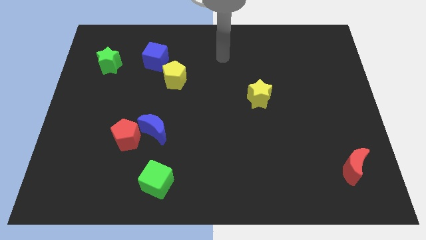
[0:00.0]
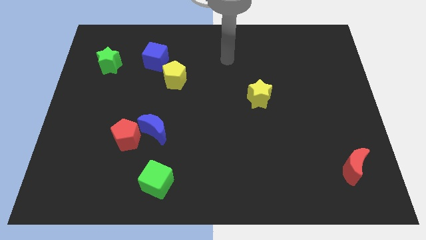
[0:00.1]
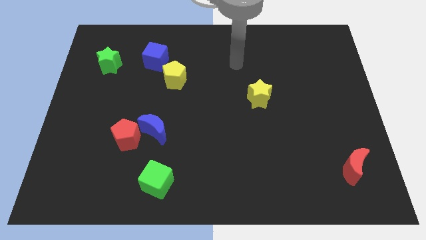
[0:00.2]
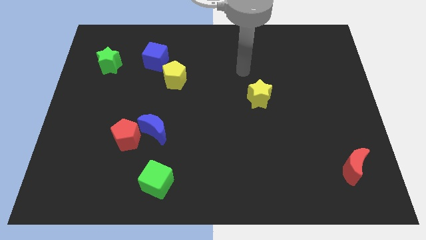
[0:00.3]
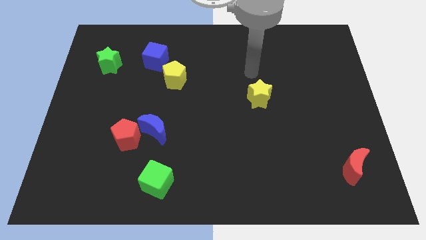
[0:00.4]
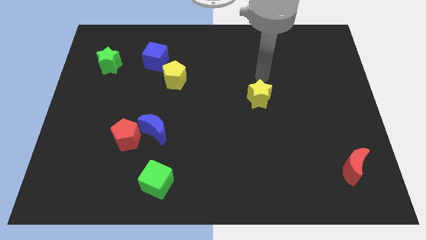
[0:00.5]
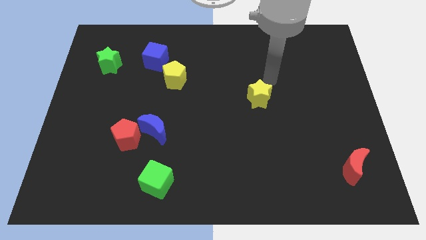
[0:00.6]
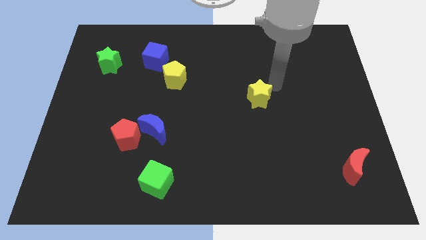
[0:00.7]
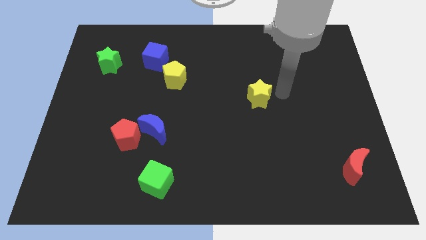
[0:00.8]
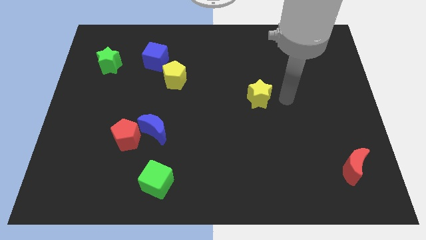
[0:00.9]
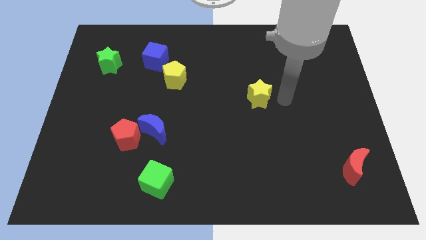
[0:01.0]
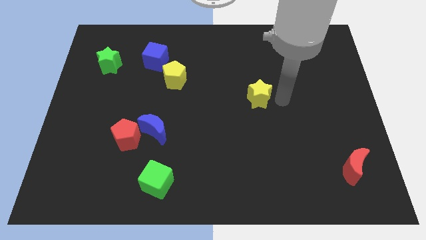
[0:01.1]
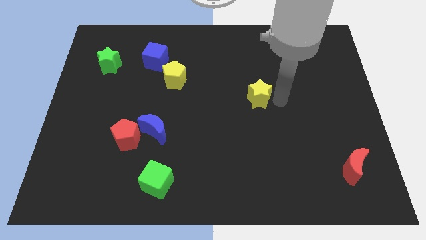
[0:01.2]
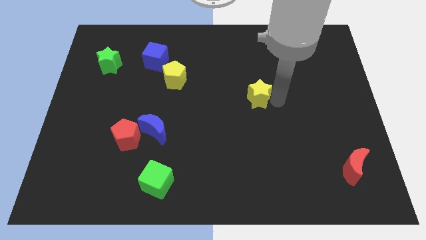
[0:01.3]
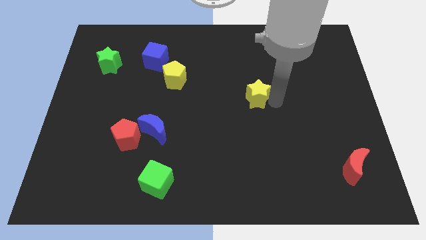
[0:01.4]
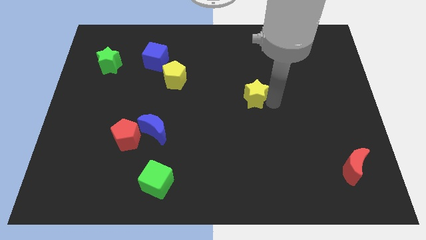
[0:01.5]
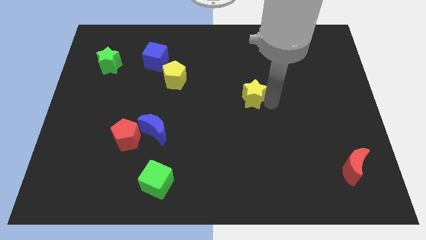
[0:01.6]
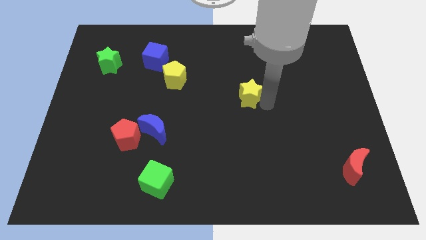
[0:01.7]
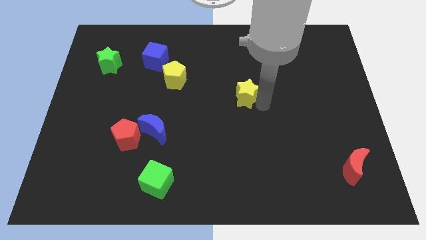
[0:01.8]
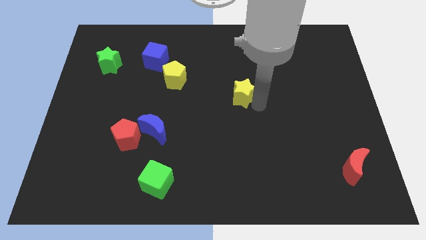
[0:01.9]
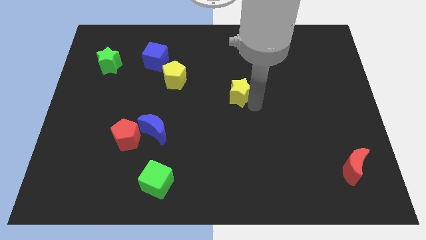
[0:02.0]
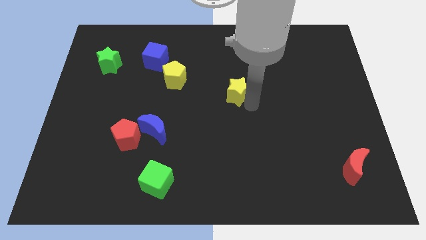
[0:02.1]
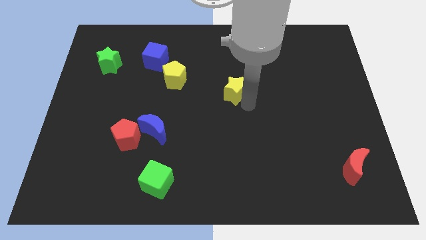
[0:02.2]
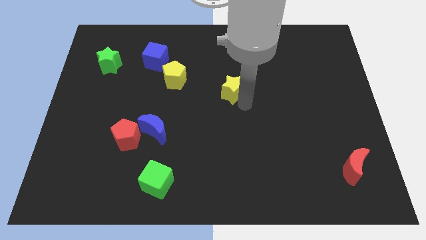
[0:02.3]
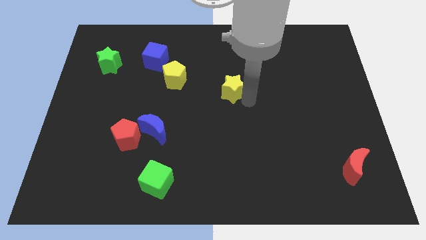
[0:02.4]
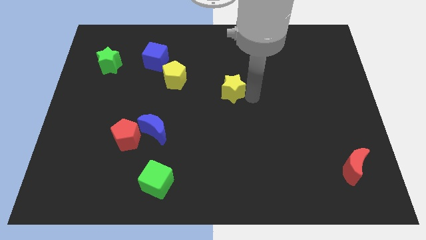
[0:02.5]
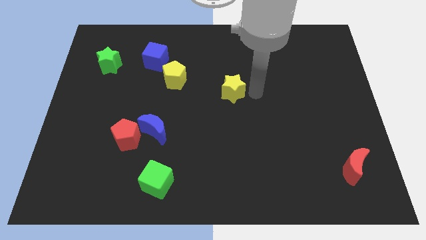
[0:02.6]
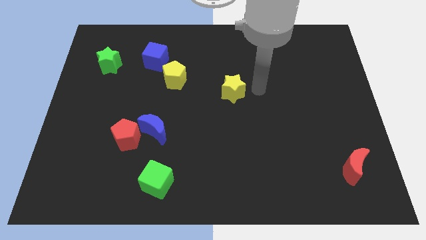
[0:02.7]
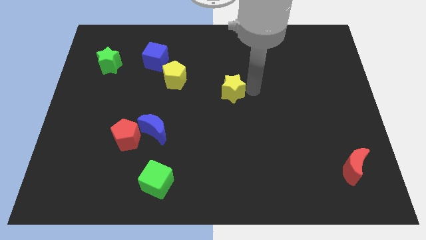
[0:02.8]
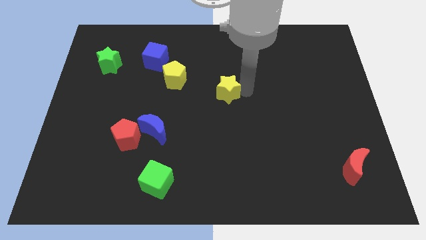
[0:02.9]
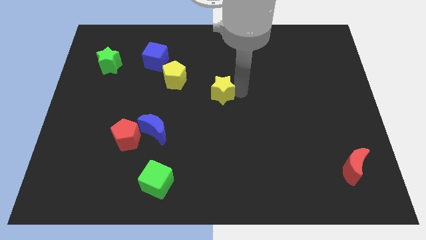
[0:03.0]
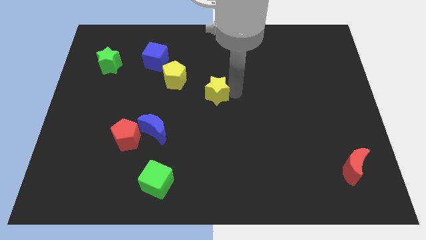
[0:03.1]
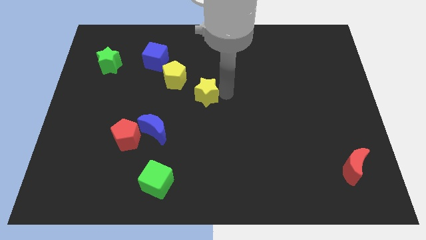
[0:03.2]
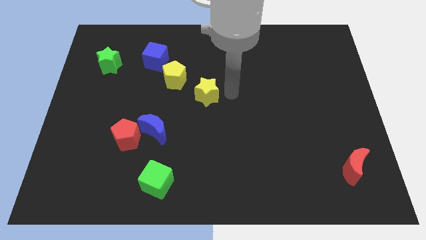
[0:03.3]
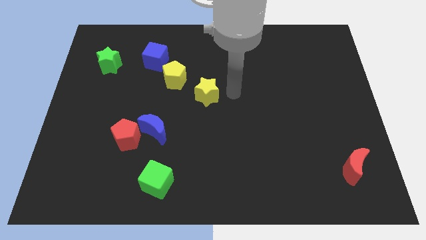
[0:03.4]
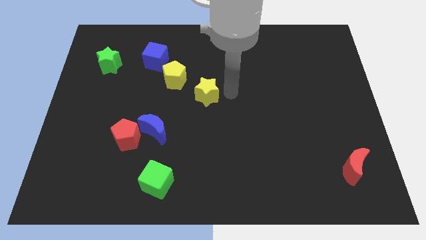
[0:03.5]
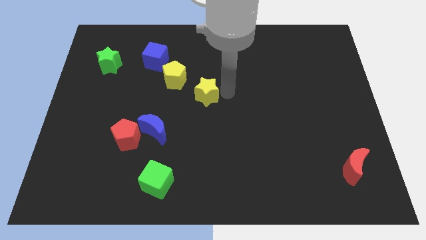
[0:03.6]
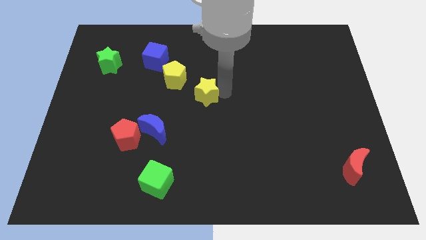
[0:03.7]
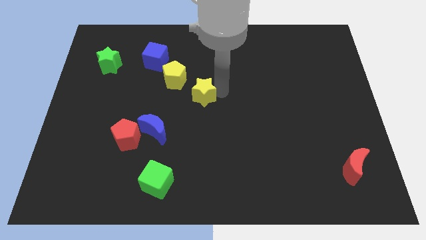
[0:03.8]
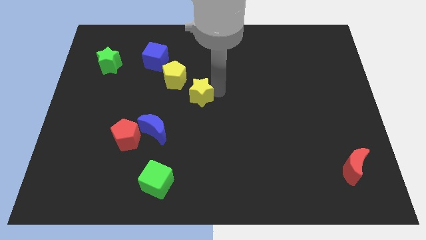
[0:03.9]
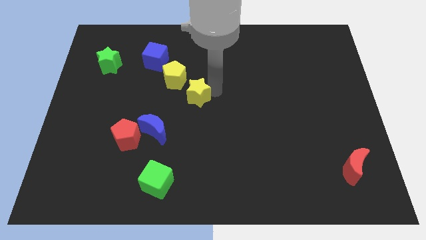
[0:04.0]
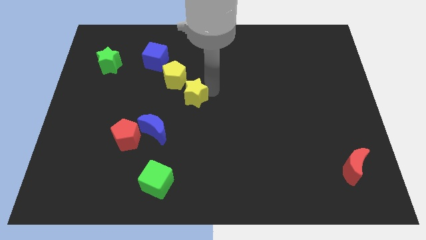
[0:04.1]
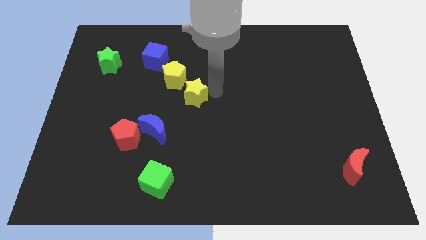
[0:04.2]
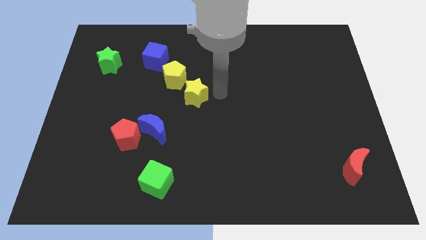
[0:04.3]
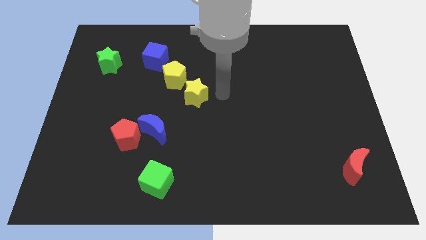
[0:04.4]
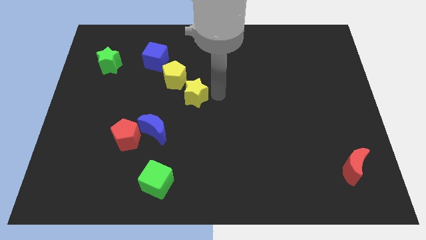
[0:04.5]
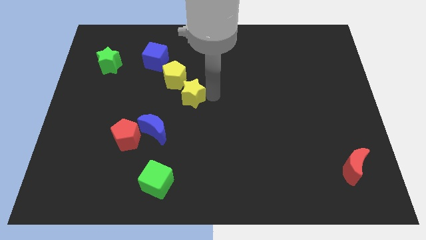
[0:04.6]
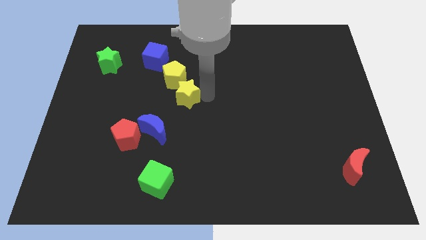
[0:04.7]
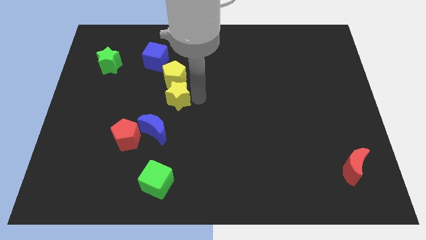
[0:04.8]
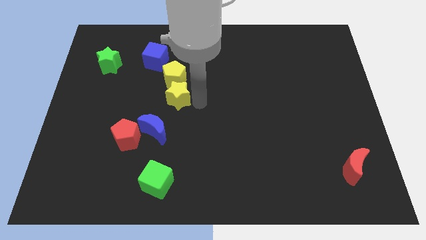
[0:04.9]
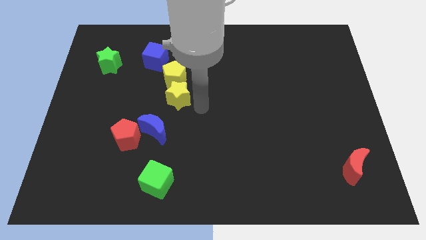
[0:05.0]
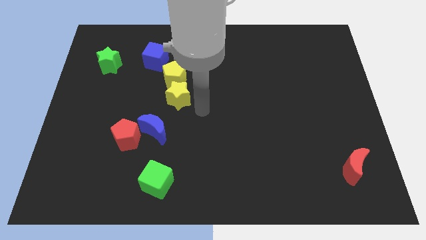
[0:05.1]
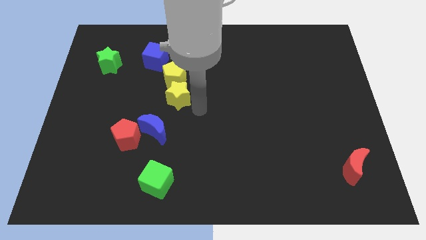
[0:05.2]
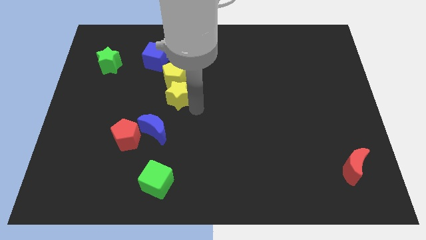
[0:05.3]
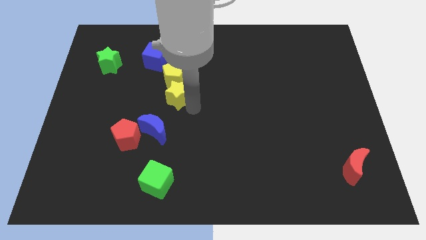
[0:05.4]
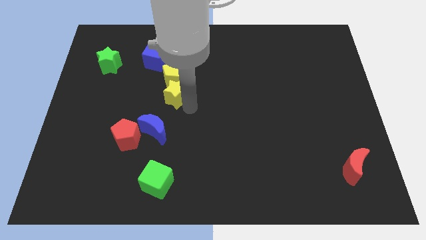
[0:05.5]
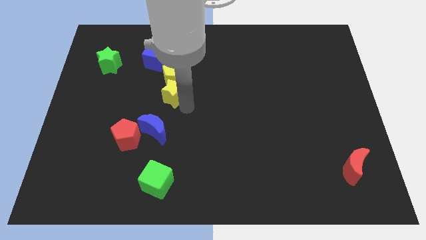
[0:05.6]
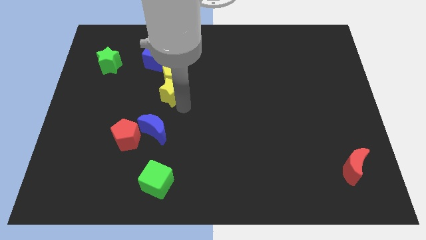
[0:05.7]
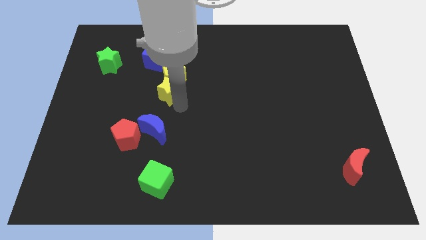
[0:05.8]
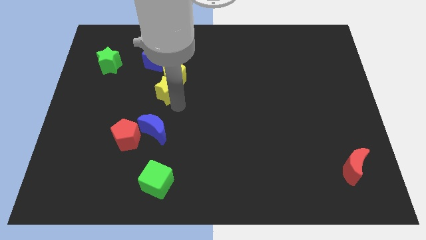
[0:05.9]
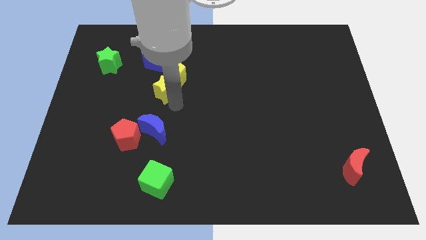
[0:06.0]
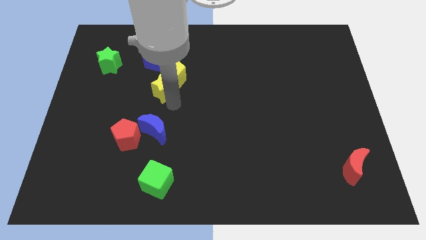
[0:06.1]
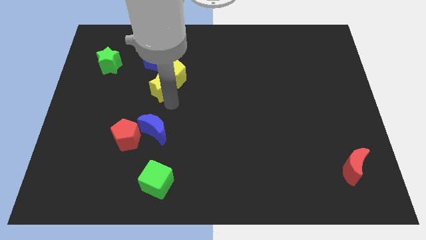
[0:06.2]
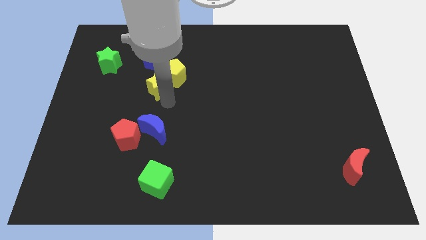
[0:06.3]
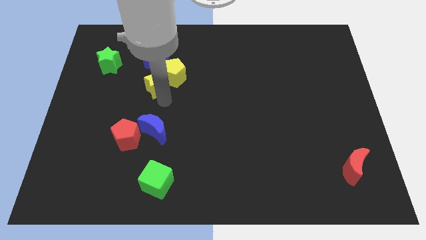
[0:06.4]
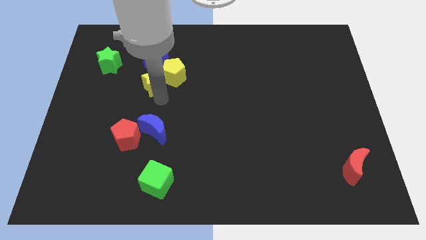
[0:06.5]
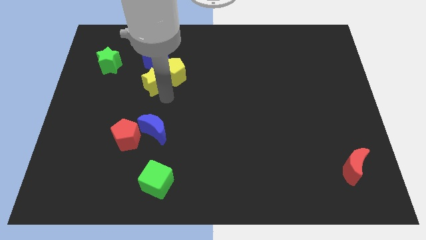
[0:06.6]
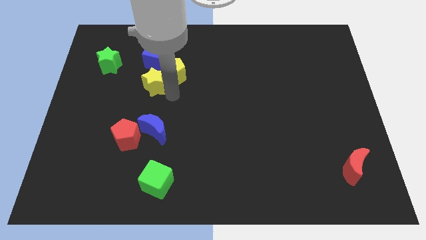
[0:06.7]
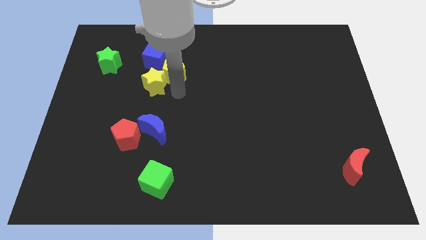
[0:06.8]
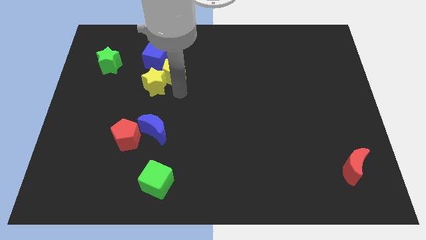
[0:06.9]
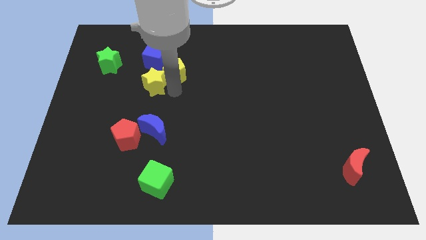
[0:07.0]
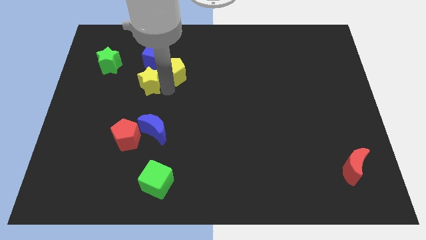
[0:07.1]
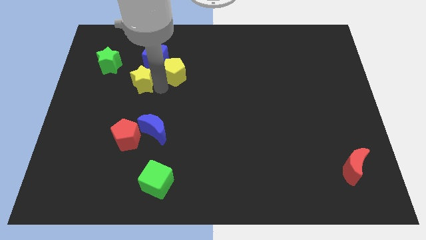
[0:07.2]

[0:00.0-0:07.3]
move the yellow star to the bottom right of the green star

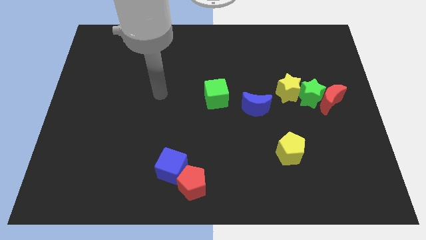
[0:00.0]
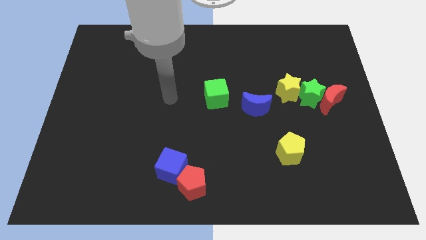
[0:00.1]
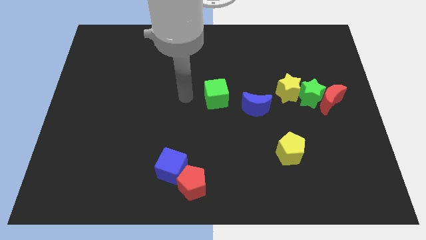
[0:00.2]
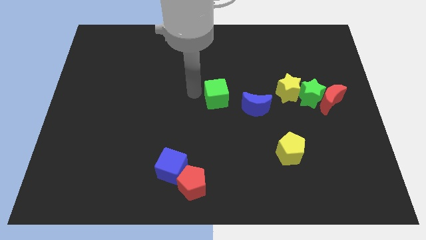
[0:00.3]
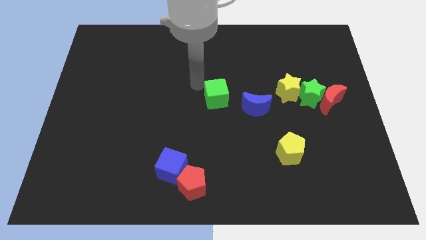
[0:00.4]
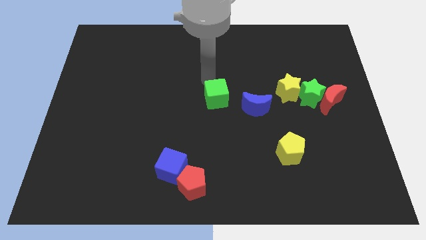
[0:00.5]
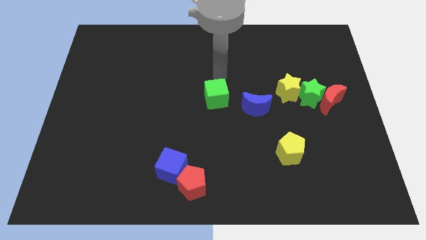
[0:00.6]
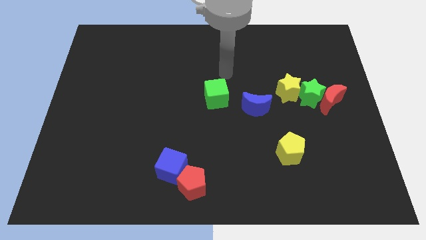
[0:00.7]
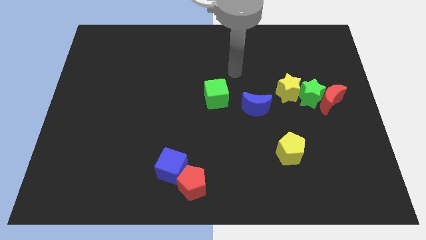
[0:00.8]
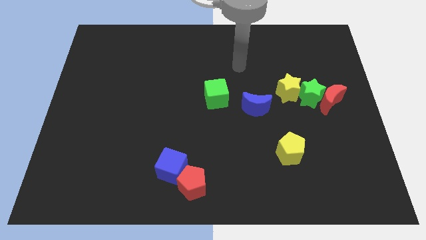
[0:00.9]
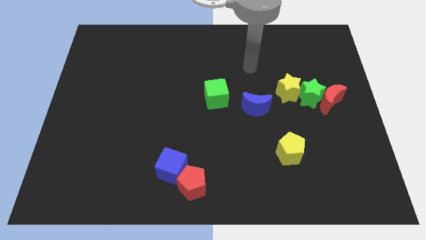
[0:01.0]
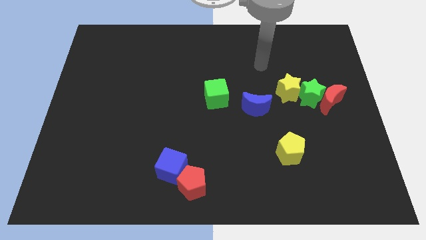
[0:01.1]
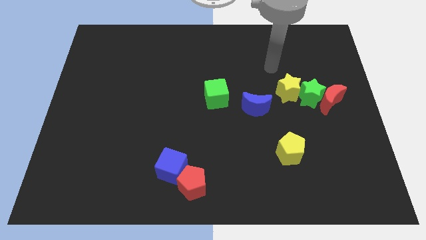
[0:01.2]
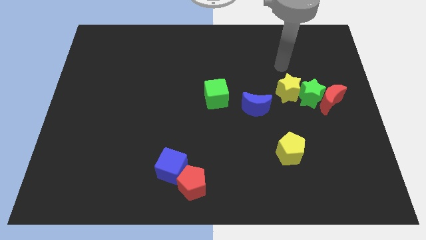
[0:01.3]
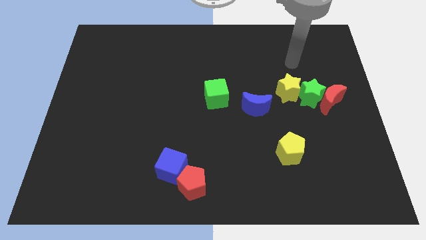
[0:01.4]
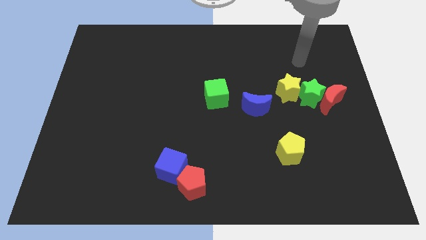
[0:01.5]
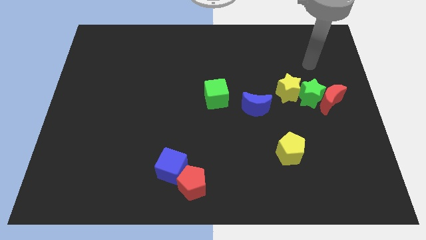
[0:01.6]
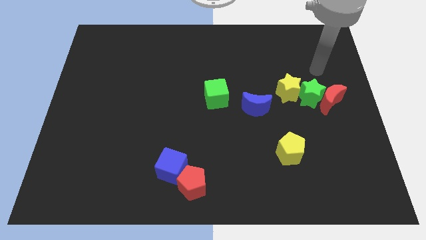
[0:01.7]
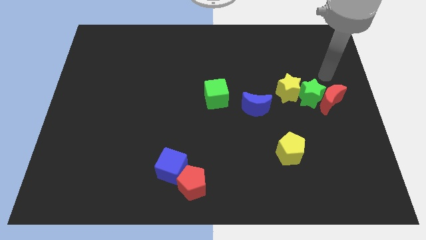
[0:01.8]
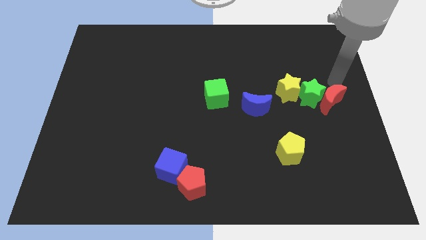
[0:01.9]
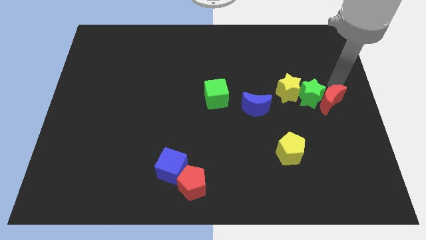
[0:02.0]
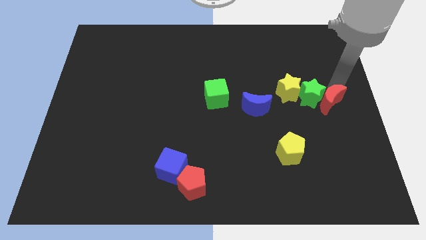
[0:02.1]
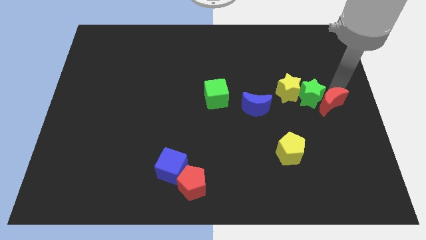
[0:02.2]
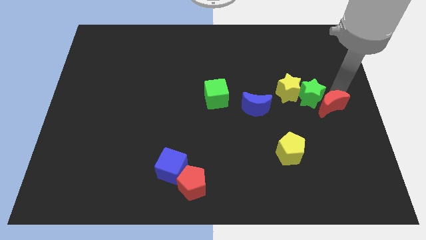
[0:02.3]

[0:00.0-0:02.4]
push the red moon to the bottom side of the green star
